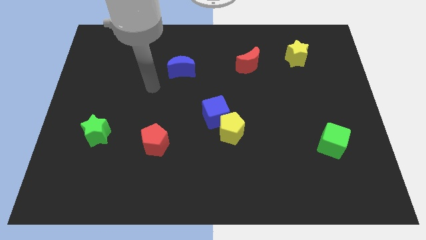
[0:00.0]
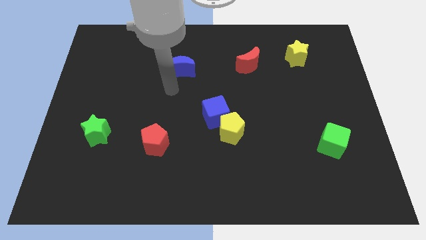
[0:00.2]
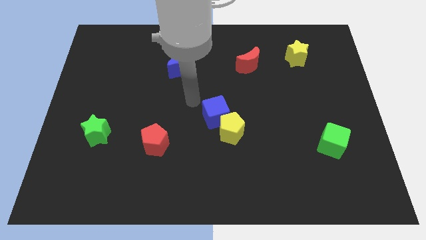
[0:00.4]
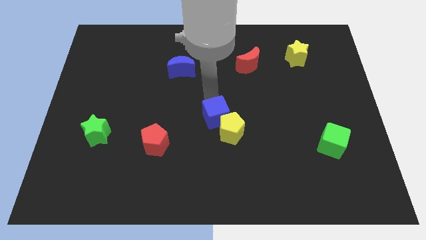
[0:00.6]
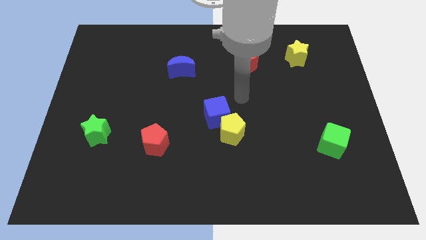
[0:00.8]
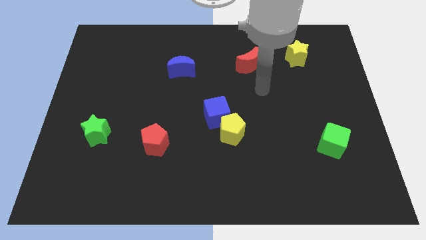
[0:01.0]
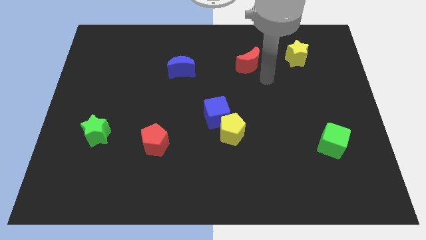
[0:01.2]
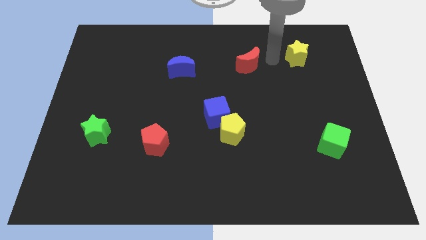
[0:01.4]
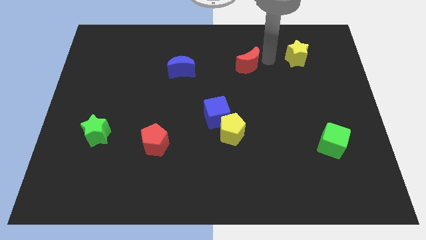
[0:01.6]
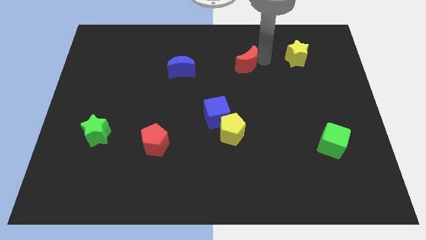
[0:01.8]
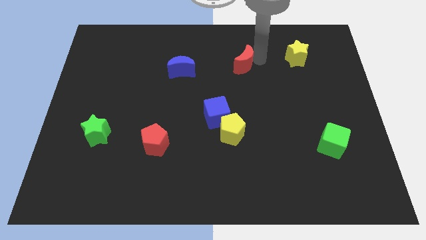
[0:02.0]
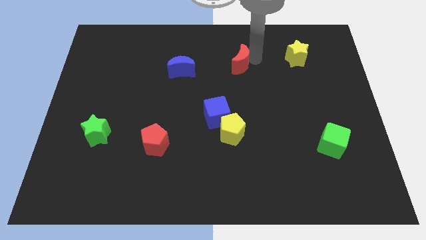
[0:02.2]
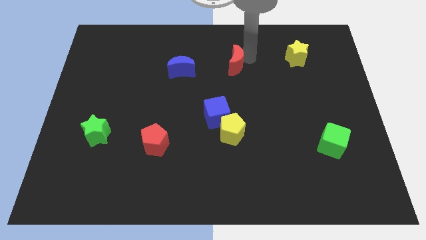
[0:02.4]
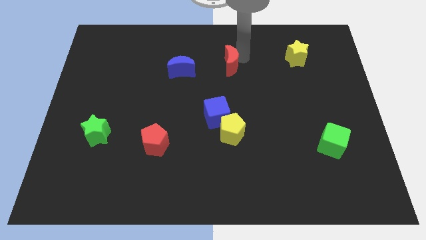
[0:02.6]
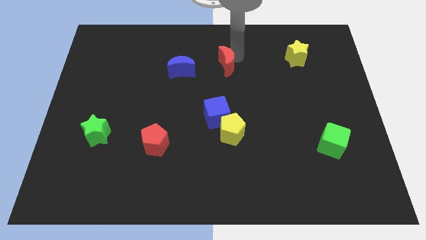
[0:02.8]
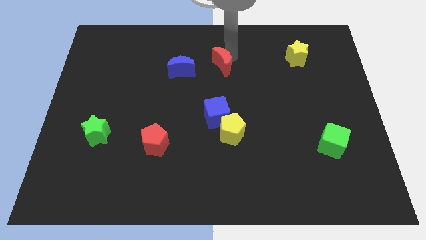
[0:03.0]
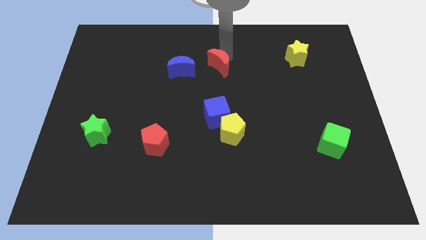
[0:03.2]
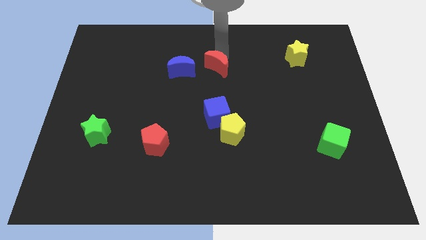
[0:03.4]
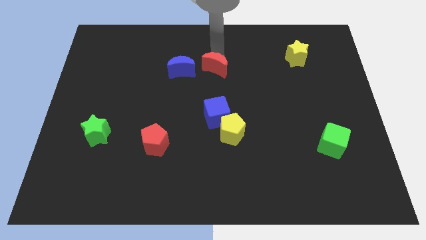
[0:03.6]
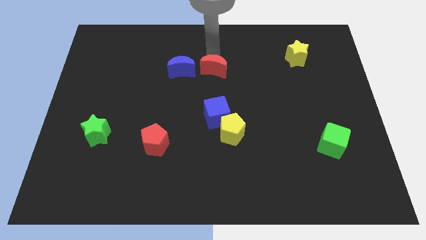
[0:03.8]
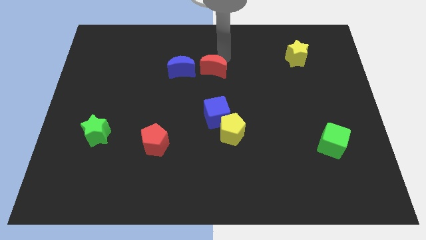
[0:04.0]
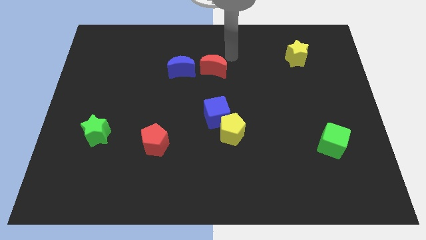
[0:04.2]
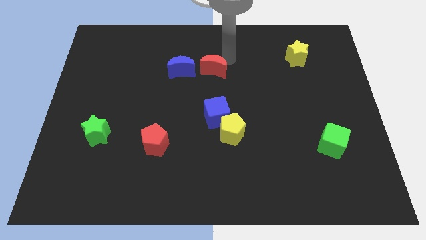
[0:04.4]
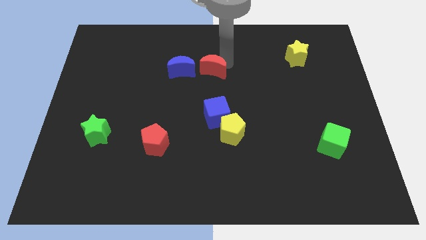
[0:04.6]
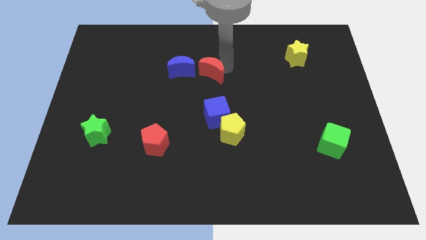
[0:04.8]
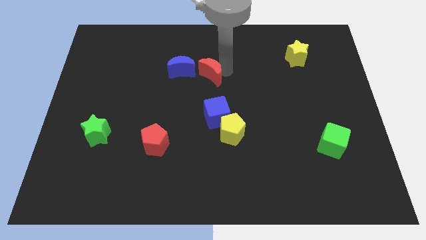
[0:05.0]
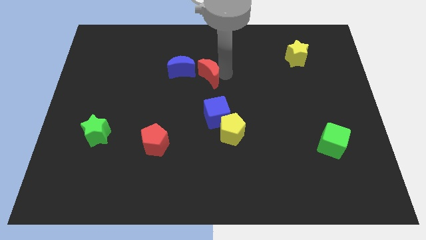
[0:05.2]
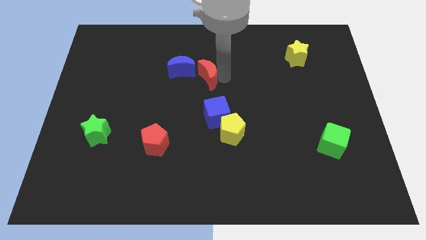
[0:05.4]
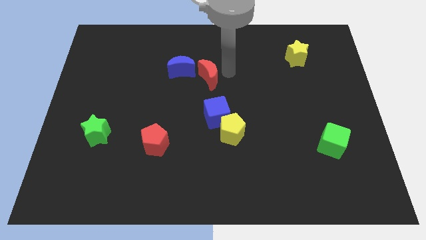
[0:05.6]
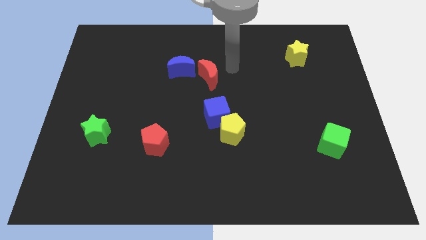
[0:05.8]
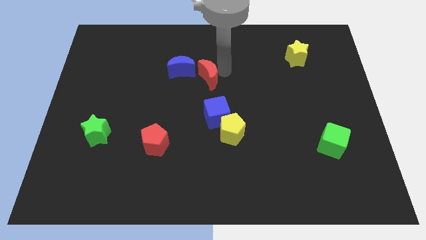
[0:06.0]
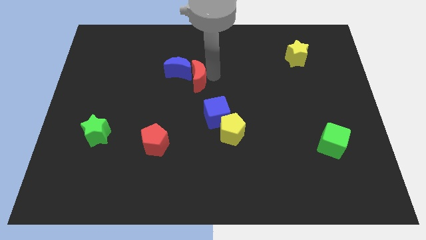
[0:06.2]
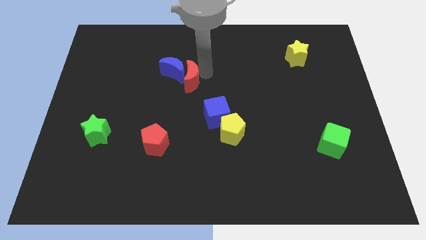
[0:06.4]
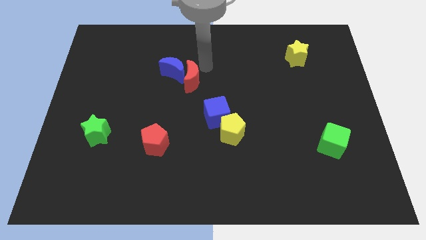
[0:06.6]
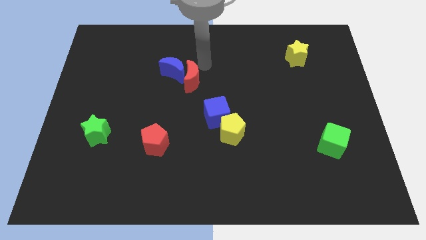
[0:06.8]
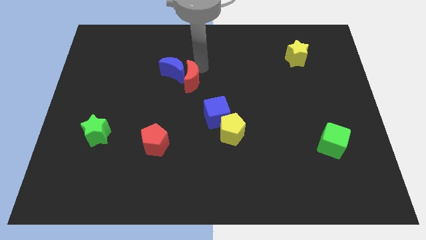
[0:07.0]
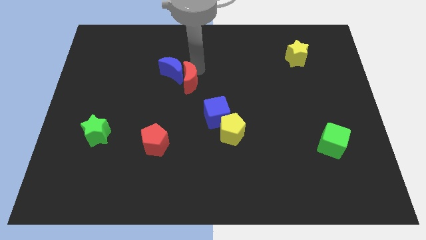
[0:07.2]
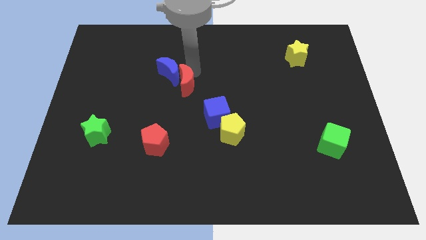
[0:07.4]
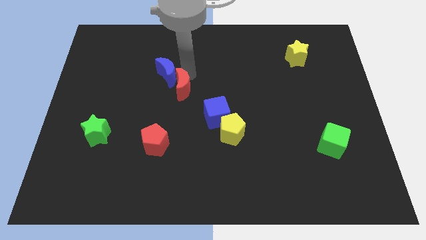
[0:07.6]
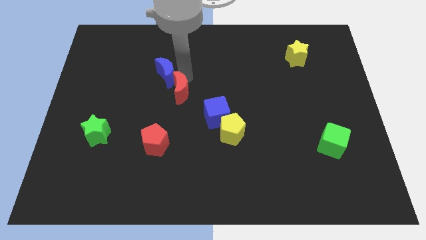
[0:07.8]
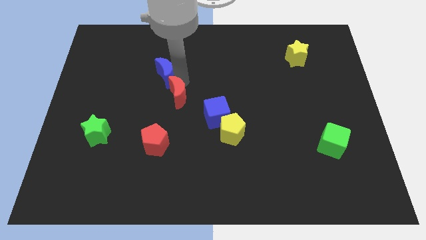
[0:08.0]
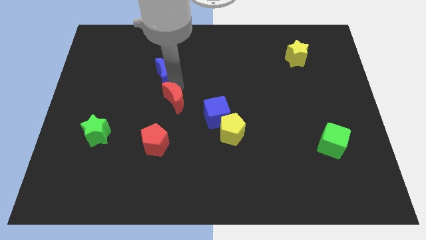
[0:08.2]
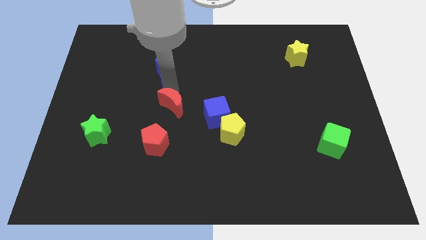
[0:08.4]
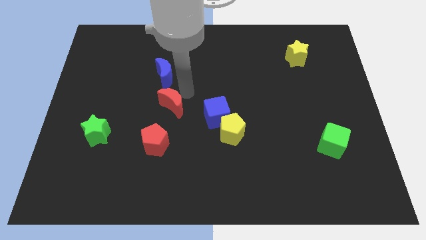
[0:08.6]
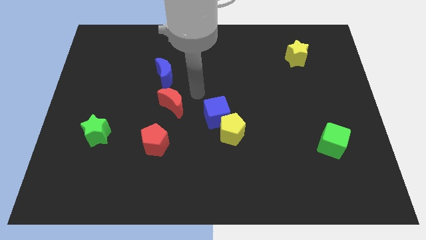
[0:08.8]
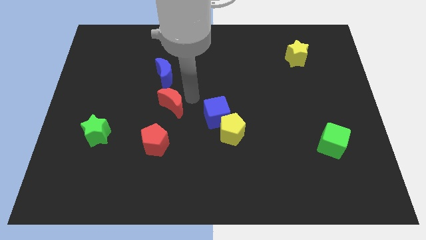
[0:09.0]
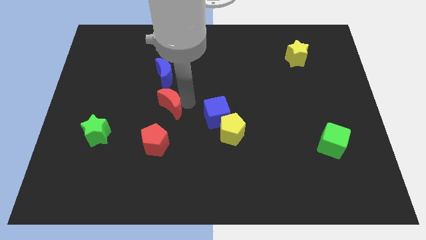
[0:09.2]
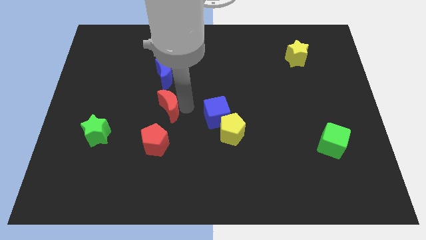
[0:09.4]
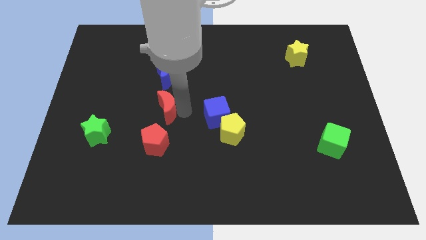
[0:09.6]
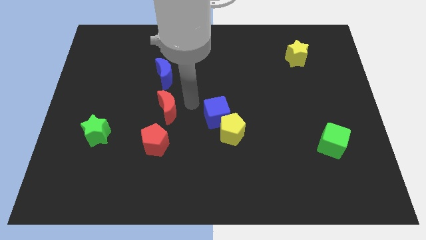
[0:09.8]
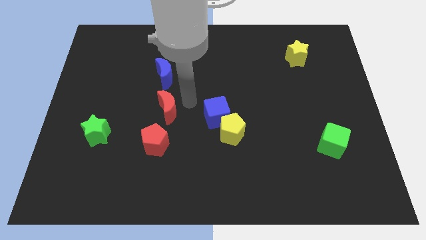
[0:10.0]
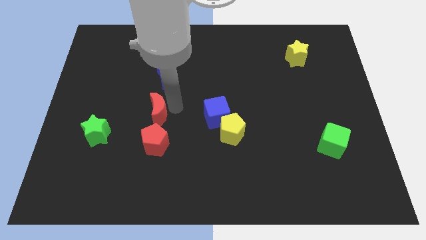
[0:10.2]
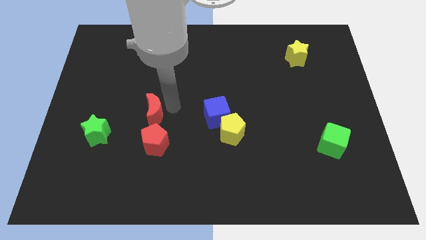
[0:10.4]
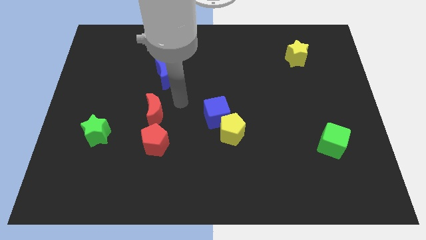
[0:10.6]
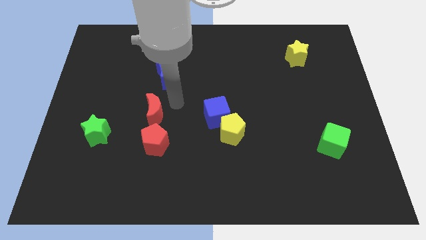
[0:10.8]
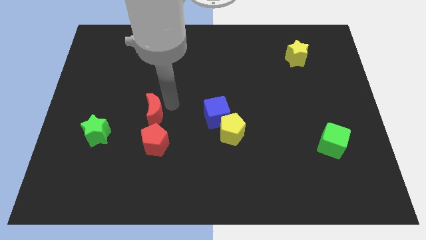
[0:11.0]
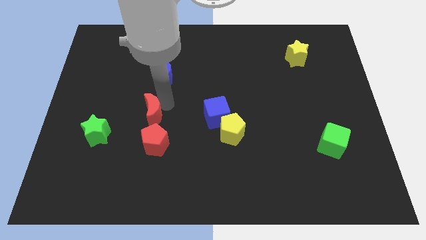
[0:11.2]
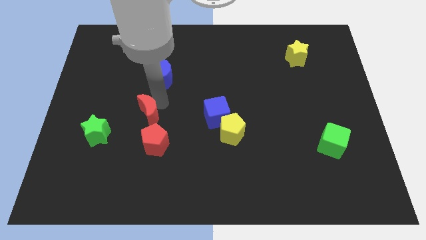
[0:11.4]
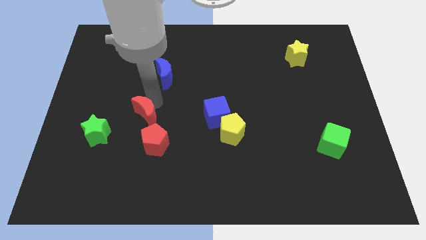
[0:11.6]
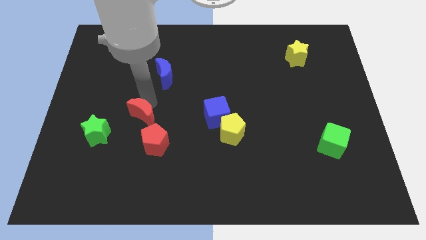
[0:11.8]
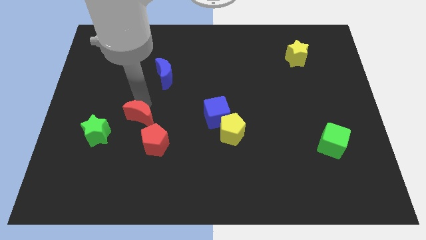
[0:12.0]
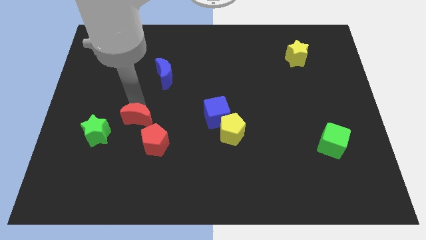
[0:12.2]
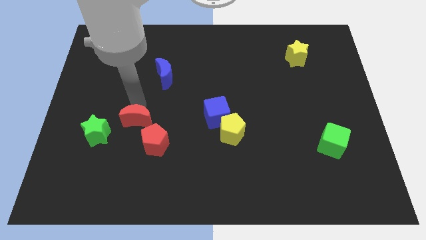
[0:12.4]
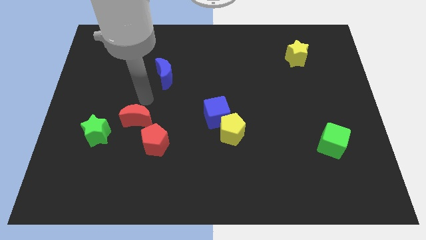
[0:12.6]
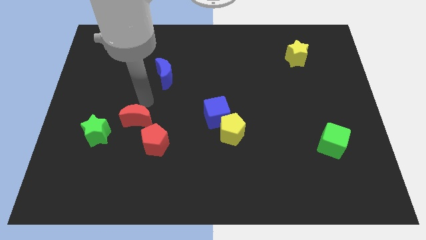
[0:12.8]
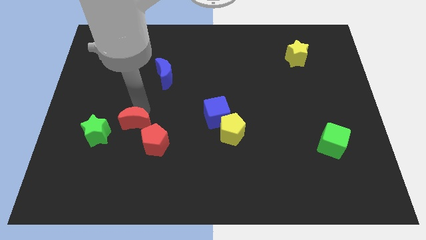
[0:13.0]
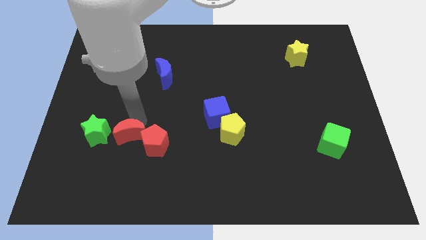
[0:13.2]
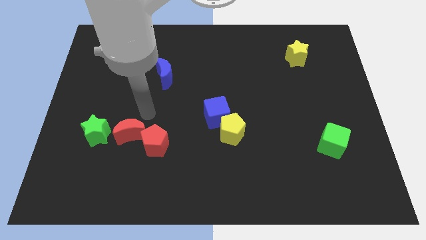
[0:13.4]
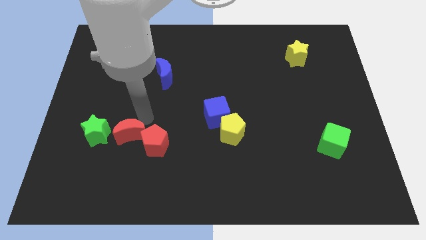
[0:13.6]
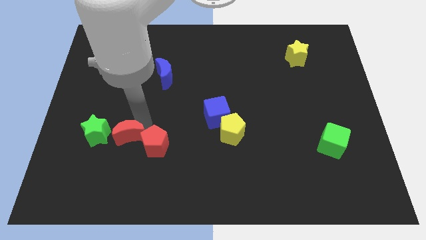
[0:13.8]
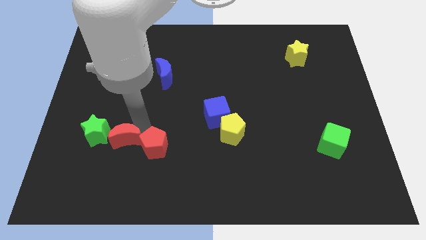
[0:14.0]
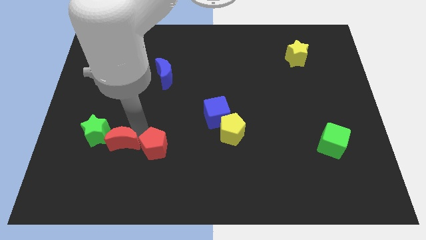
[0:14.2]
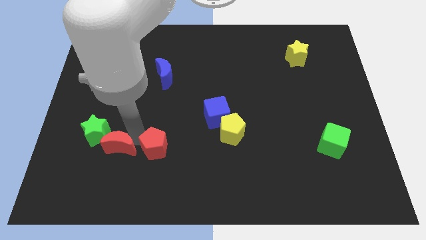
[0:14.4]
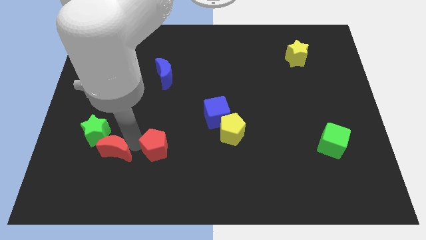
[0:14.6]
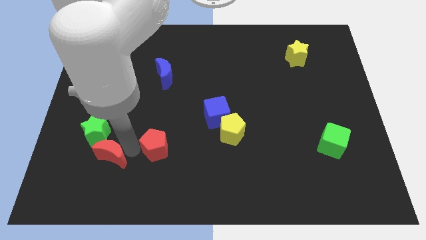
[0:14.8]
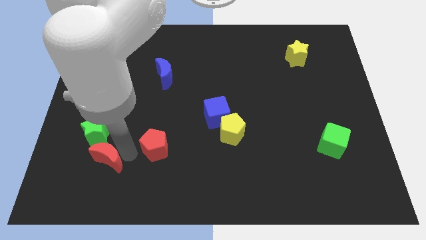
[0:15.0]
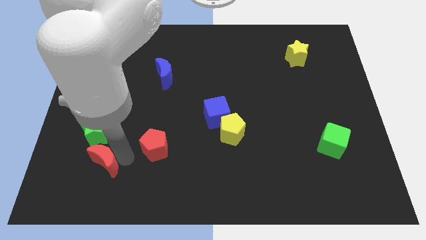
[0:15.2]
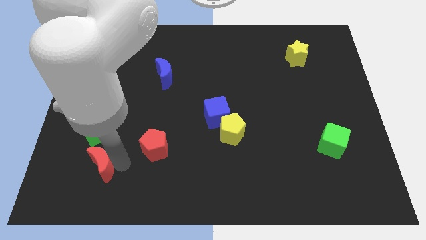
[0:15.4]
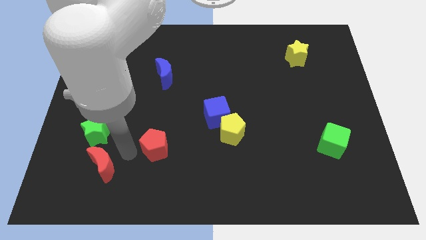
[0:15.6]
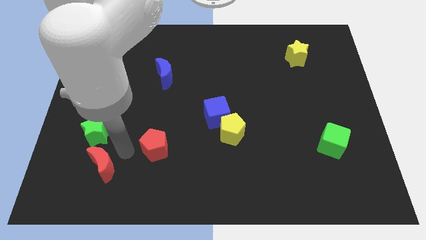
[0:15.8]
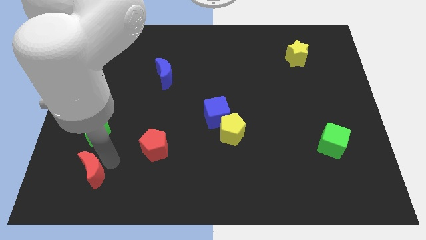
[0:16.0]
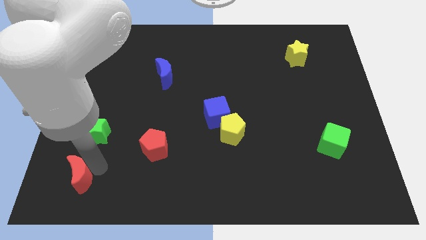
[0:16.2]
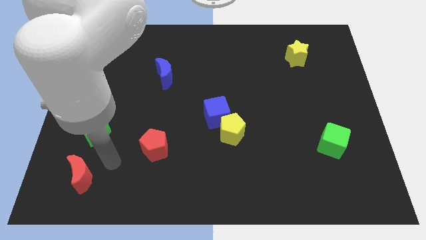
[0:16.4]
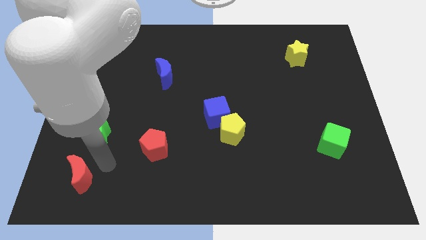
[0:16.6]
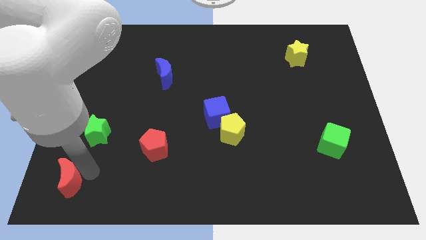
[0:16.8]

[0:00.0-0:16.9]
slide the red moon to the bottom left corner
